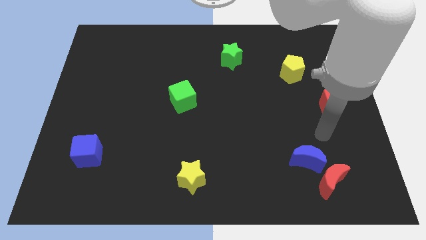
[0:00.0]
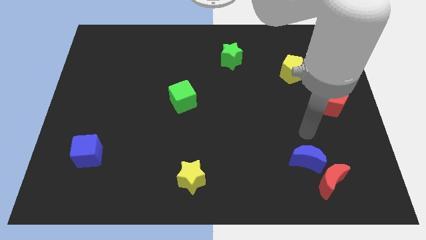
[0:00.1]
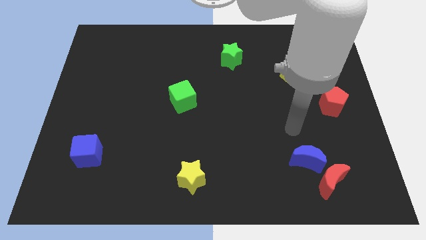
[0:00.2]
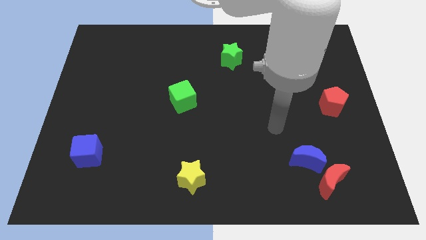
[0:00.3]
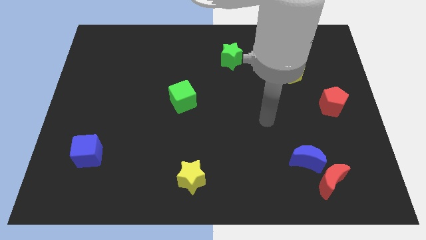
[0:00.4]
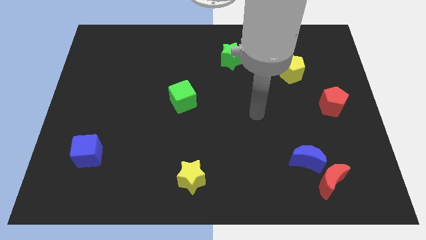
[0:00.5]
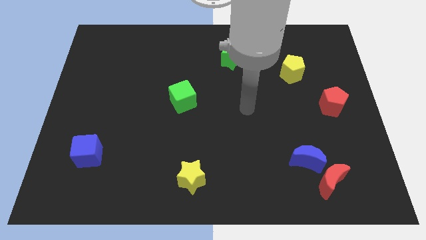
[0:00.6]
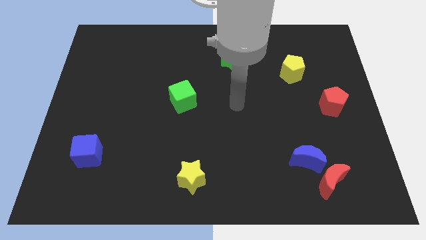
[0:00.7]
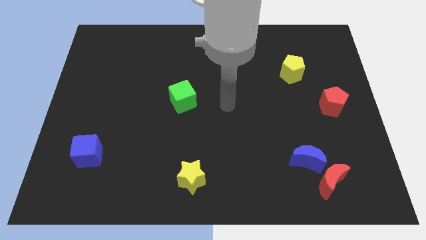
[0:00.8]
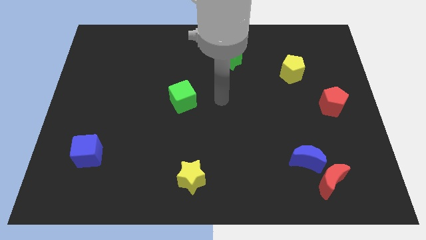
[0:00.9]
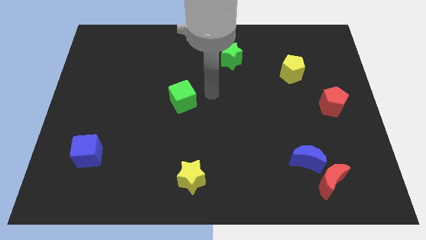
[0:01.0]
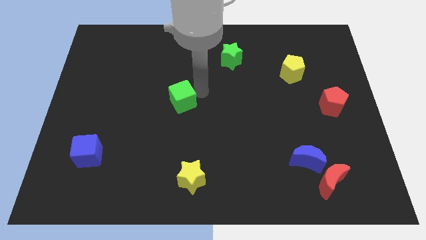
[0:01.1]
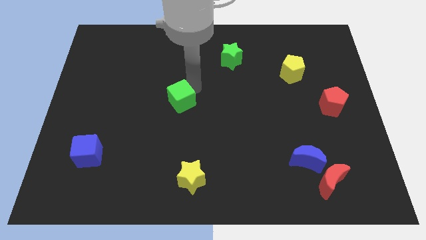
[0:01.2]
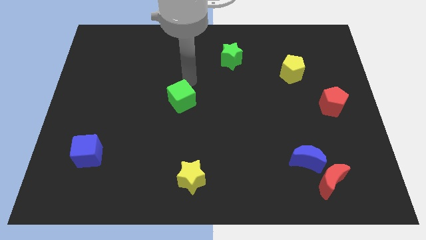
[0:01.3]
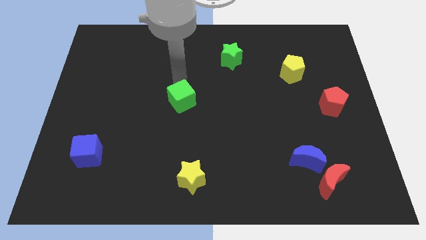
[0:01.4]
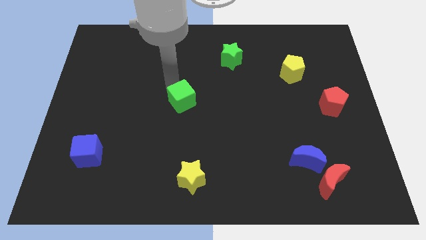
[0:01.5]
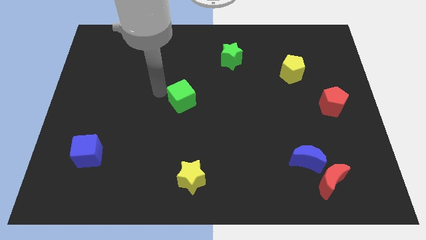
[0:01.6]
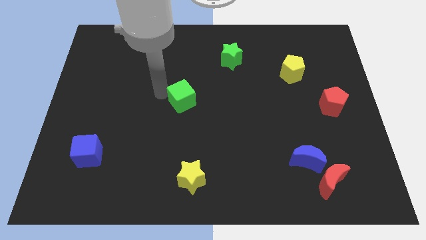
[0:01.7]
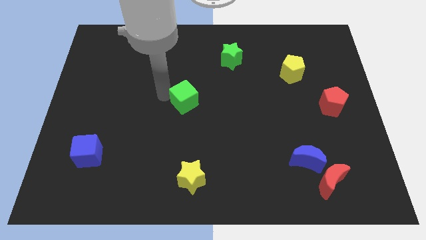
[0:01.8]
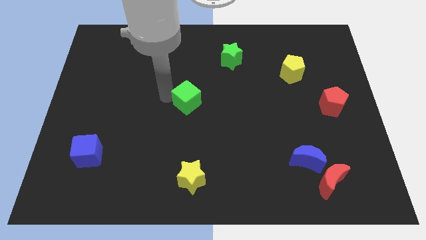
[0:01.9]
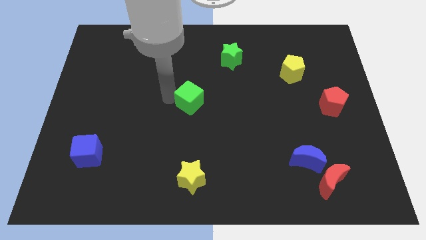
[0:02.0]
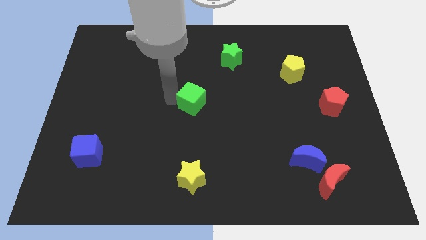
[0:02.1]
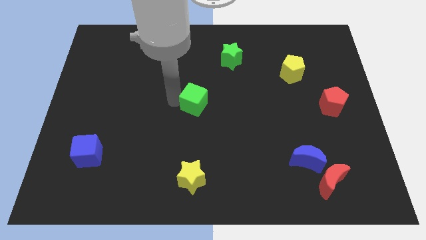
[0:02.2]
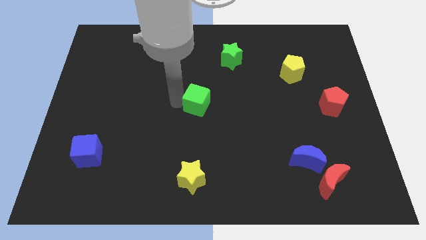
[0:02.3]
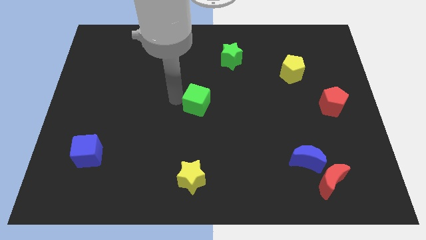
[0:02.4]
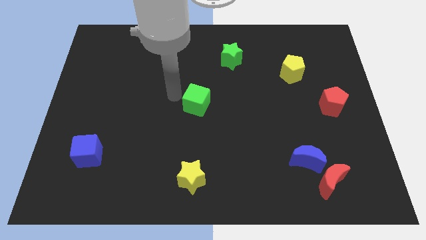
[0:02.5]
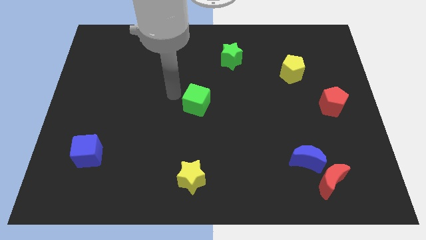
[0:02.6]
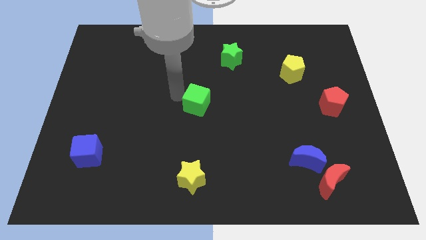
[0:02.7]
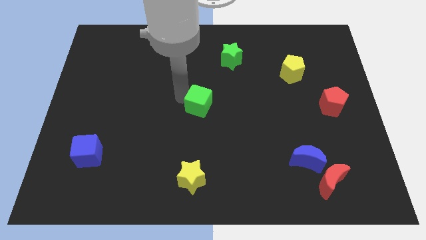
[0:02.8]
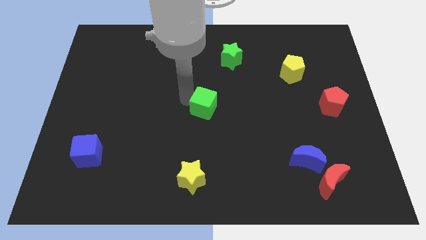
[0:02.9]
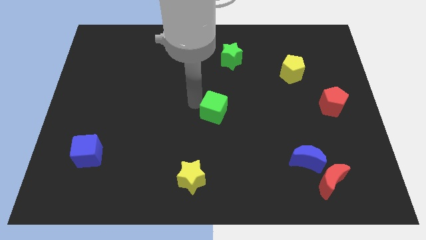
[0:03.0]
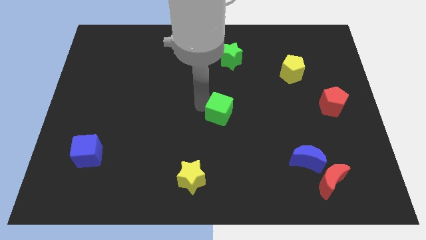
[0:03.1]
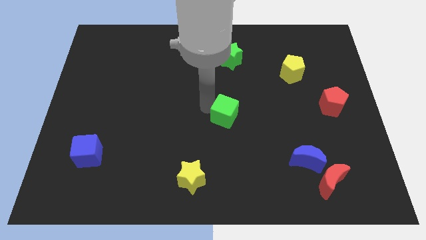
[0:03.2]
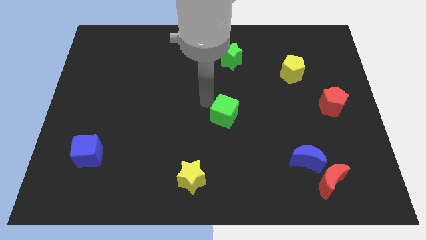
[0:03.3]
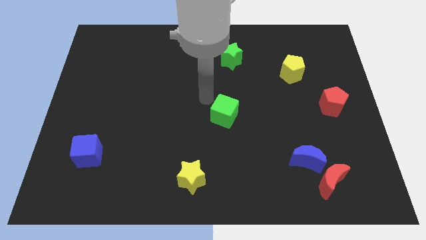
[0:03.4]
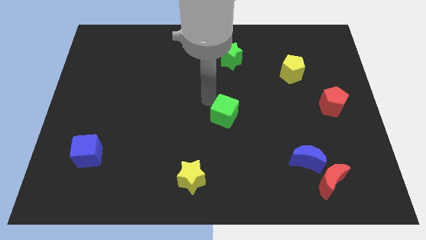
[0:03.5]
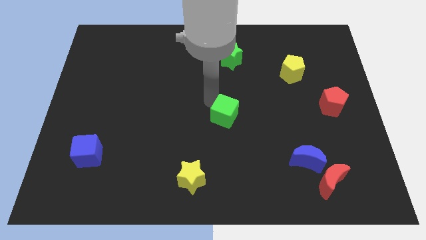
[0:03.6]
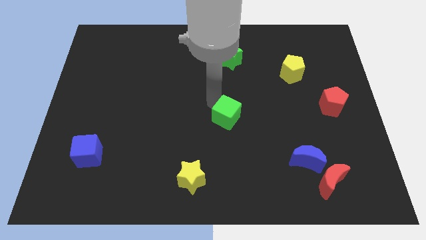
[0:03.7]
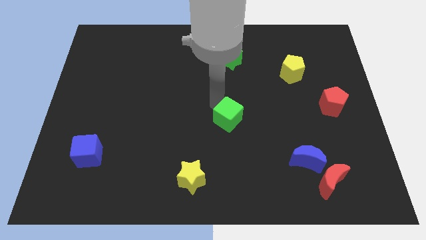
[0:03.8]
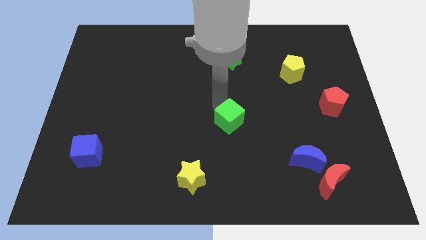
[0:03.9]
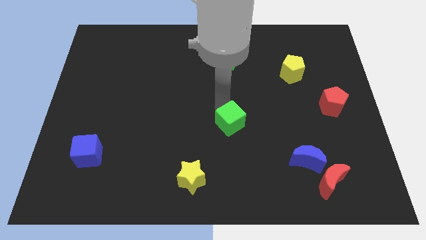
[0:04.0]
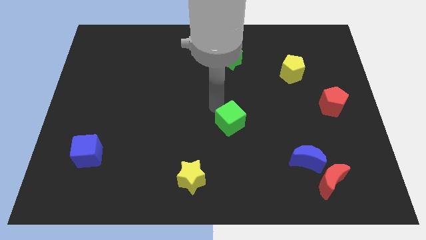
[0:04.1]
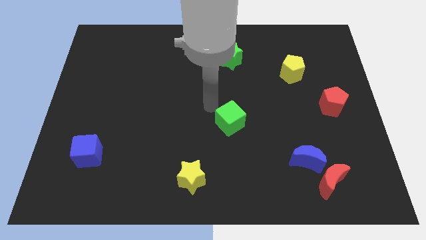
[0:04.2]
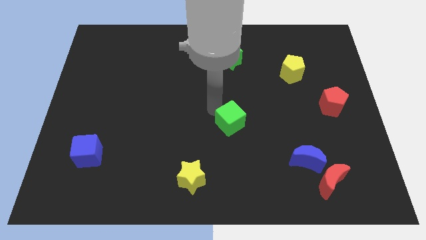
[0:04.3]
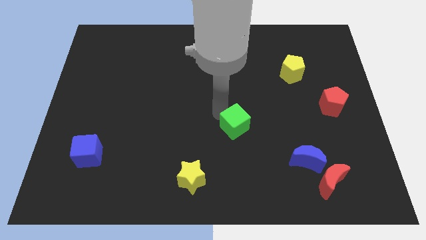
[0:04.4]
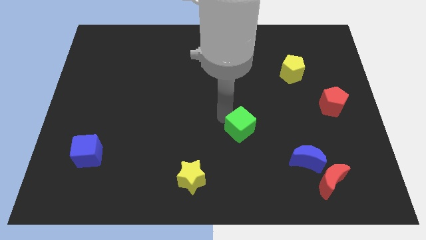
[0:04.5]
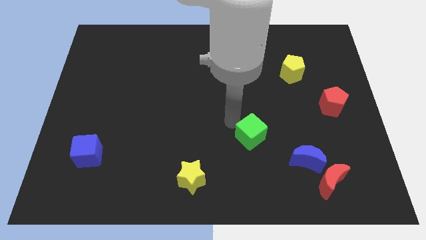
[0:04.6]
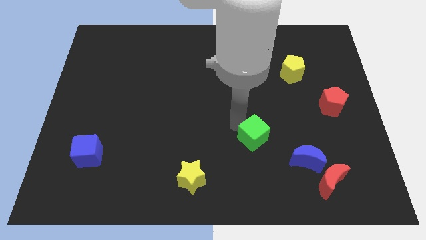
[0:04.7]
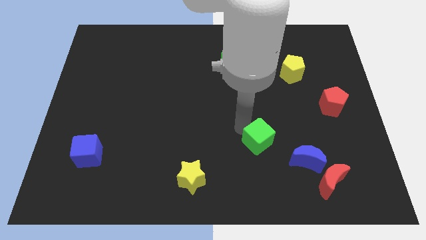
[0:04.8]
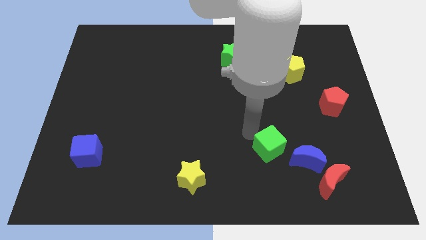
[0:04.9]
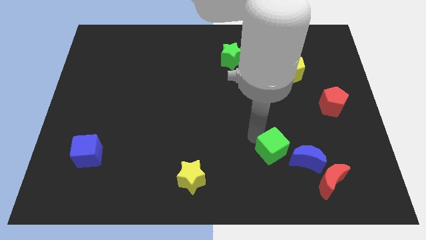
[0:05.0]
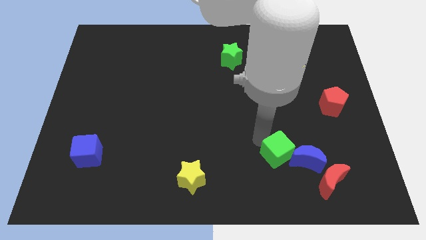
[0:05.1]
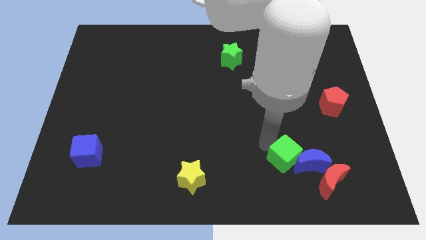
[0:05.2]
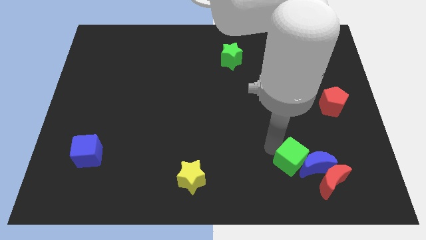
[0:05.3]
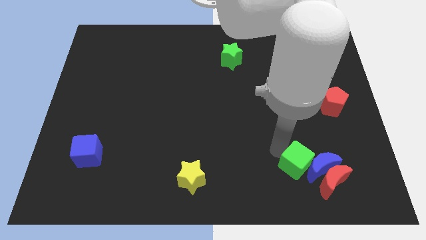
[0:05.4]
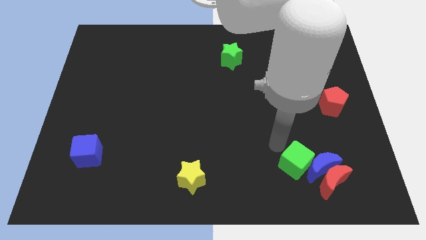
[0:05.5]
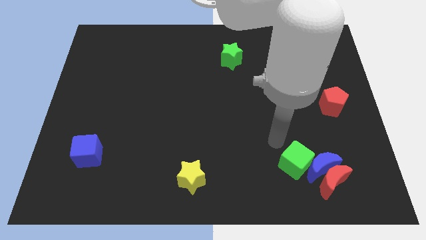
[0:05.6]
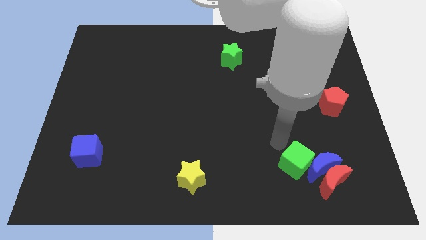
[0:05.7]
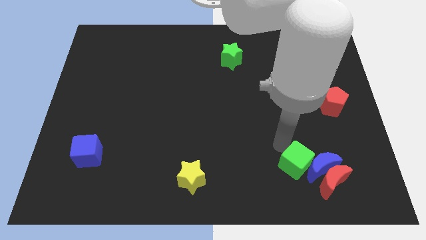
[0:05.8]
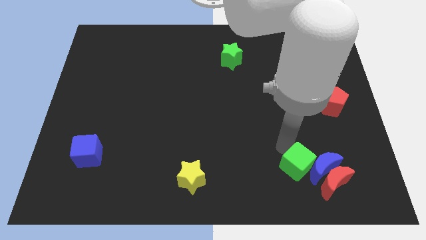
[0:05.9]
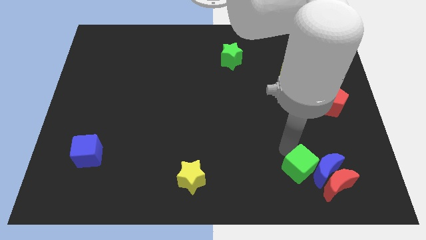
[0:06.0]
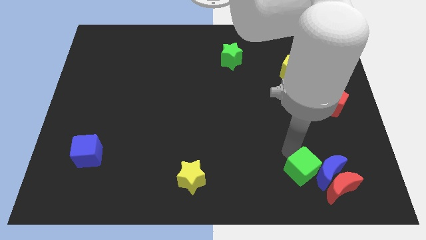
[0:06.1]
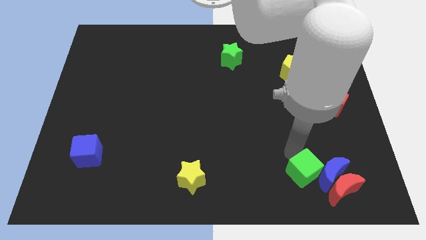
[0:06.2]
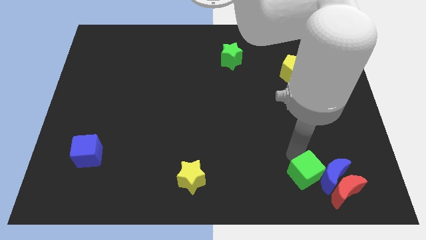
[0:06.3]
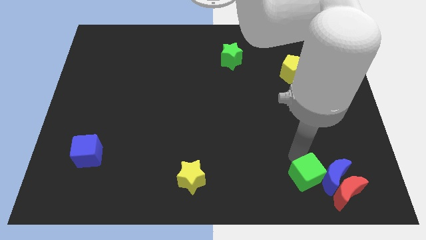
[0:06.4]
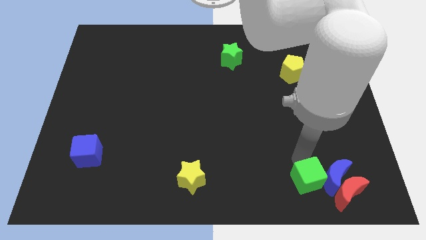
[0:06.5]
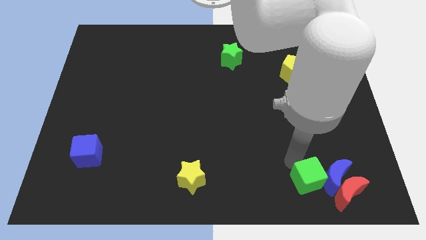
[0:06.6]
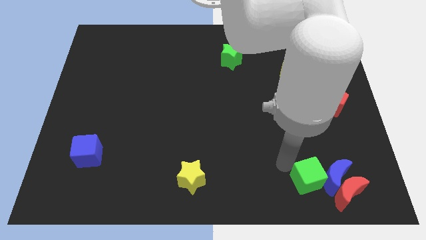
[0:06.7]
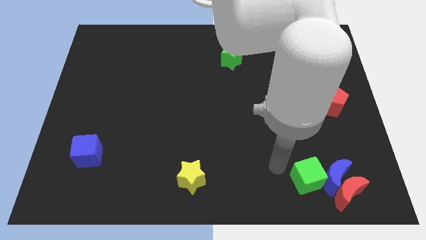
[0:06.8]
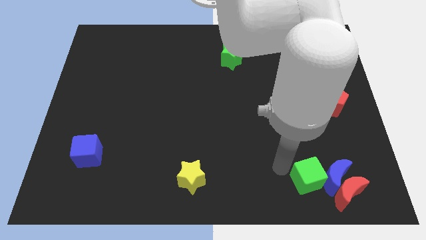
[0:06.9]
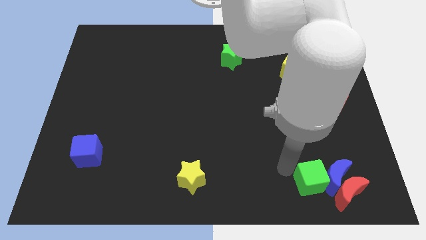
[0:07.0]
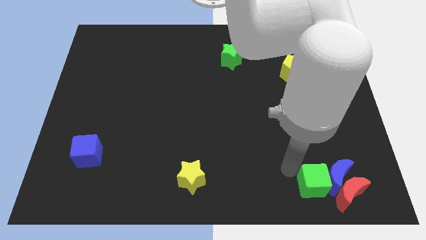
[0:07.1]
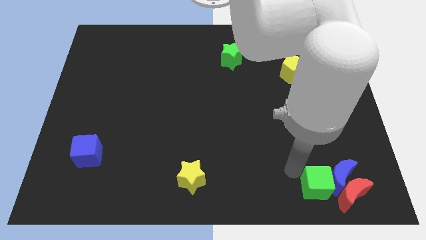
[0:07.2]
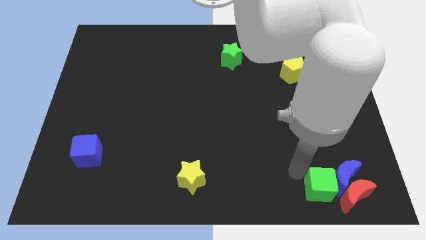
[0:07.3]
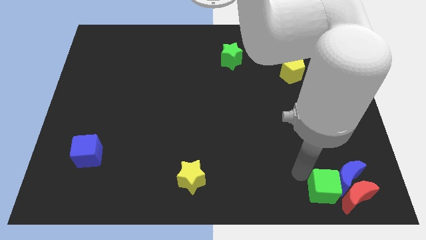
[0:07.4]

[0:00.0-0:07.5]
put the green cube close to the red moon
